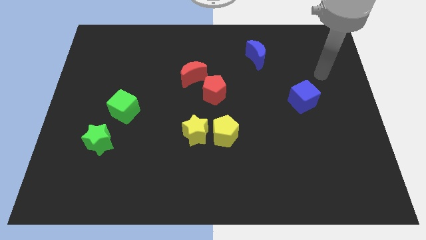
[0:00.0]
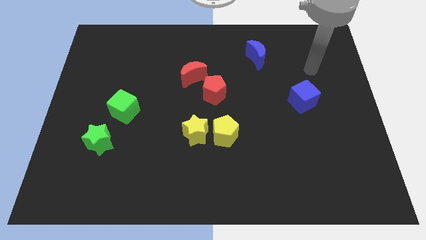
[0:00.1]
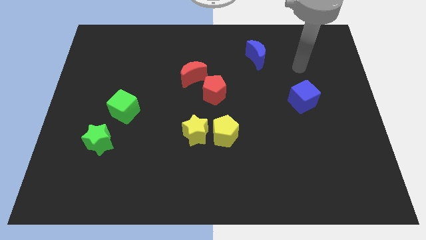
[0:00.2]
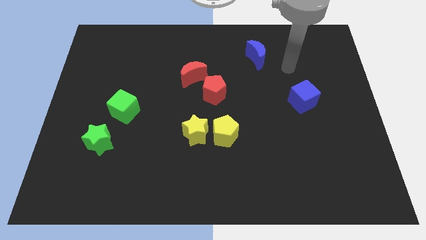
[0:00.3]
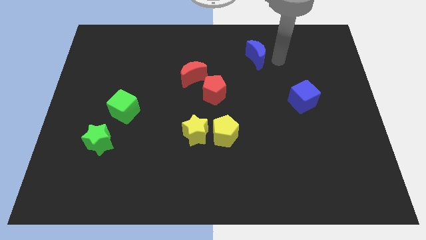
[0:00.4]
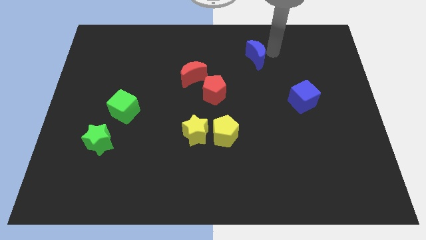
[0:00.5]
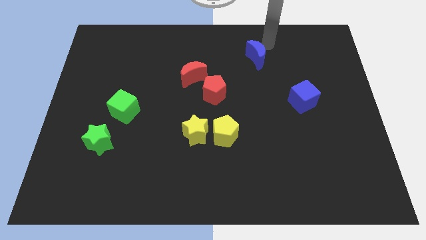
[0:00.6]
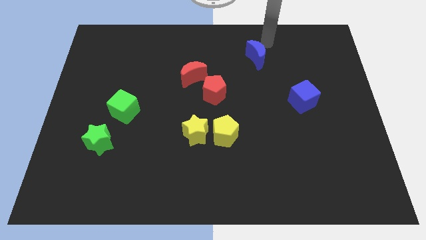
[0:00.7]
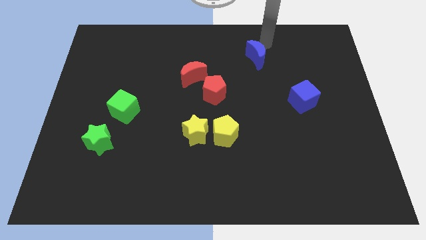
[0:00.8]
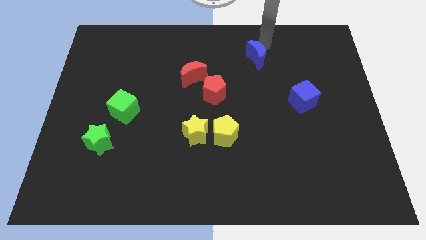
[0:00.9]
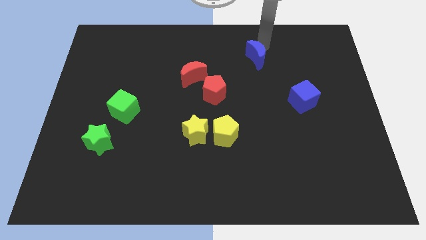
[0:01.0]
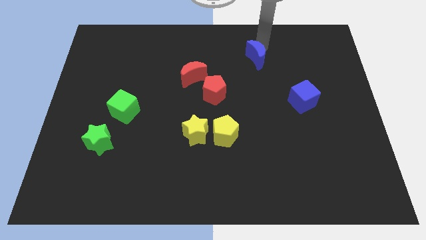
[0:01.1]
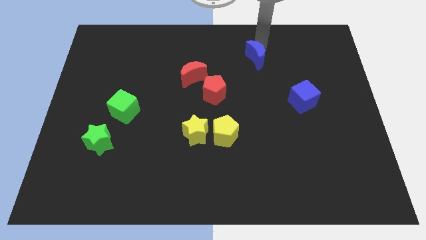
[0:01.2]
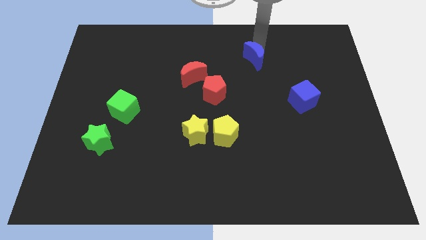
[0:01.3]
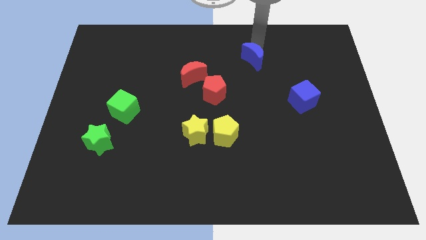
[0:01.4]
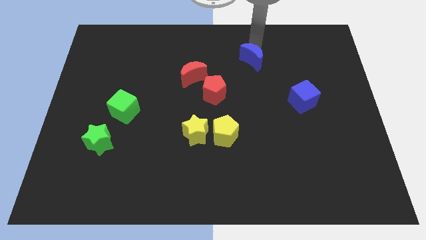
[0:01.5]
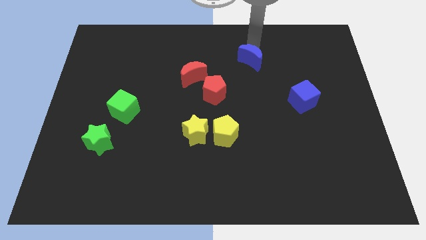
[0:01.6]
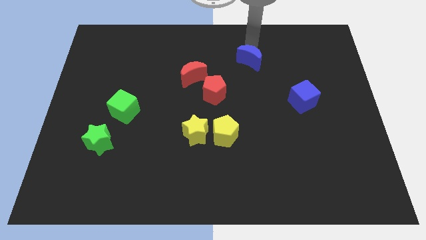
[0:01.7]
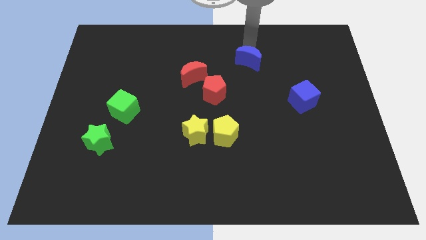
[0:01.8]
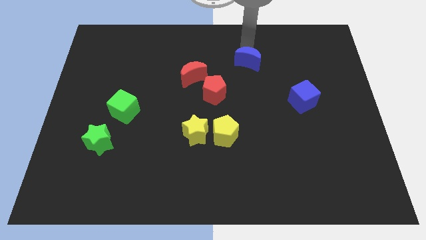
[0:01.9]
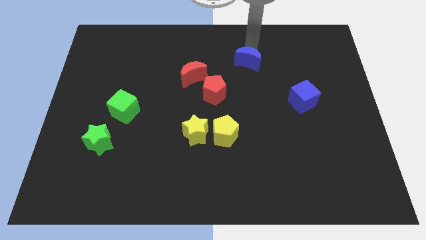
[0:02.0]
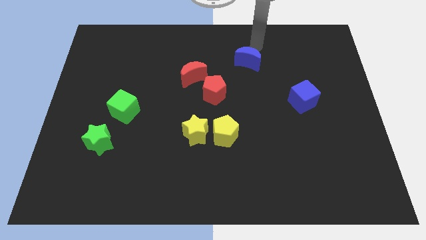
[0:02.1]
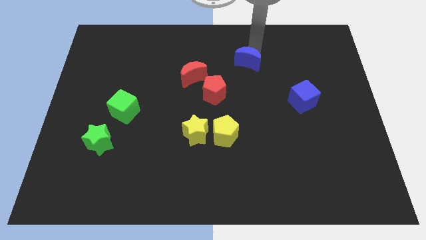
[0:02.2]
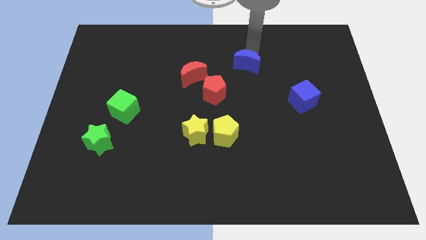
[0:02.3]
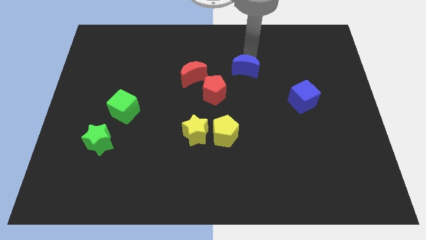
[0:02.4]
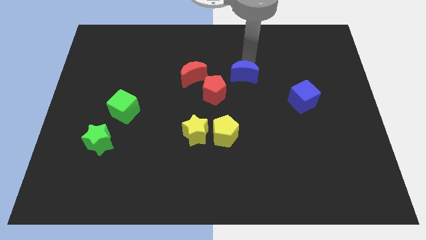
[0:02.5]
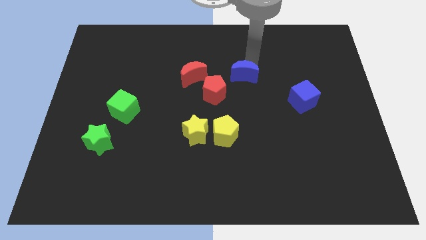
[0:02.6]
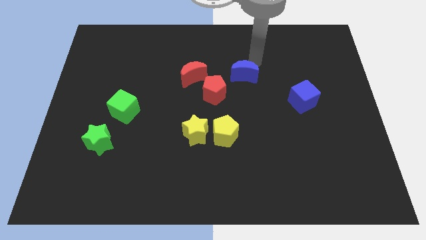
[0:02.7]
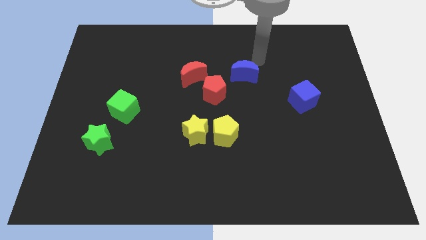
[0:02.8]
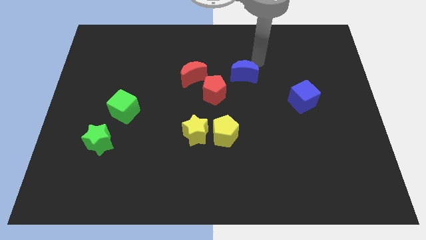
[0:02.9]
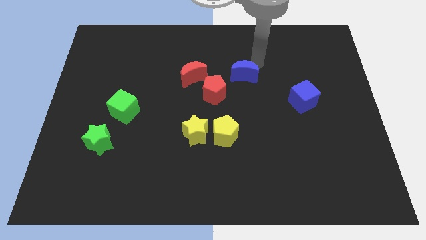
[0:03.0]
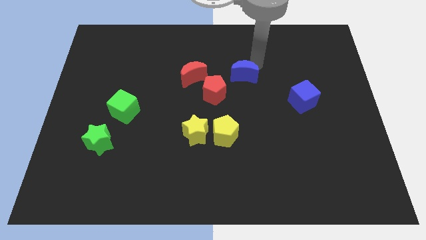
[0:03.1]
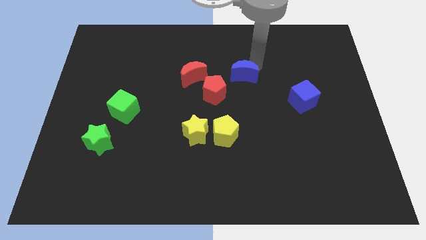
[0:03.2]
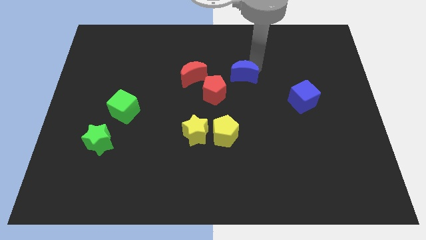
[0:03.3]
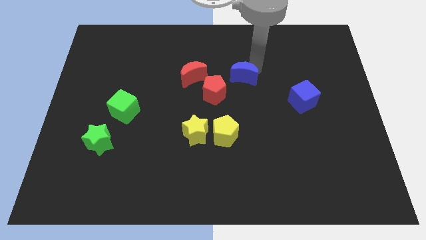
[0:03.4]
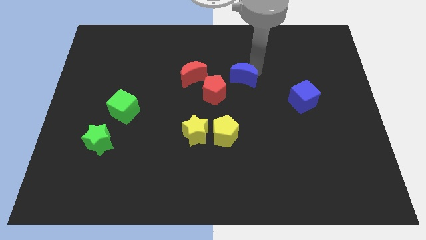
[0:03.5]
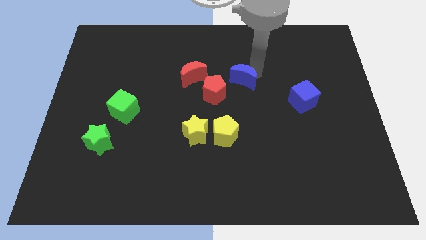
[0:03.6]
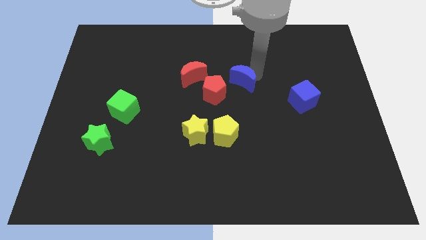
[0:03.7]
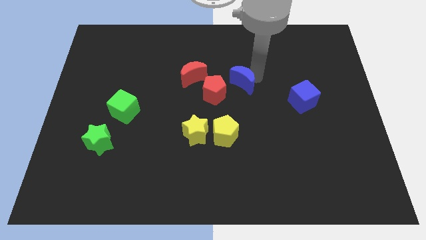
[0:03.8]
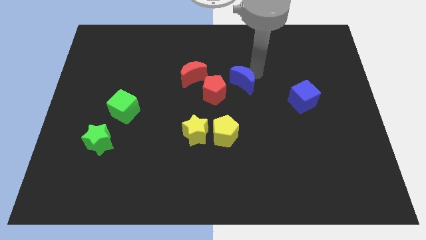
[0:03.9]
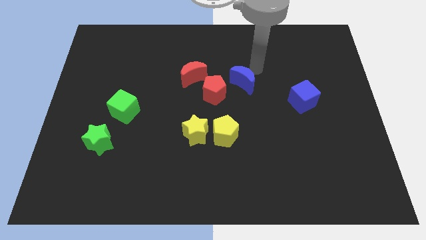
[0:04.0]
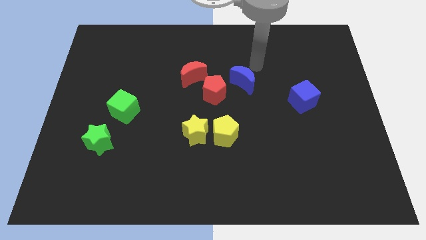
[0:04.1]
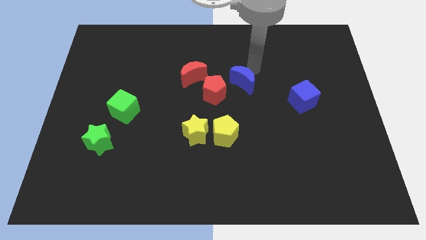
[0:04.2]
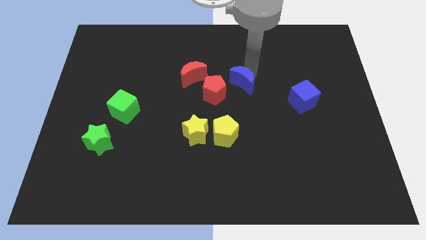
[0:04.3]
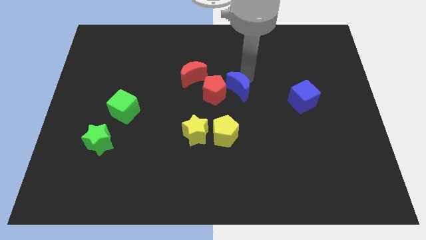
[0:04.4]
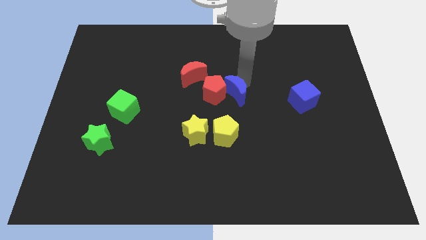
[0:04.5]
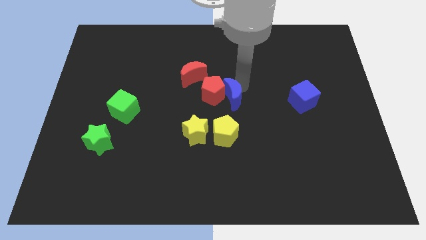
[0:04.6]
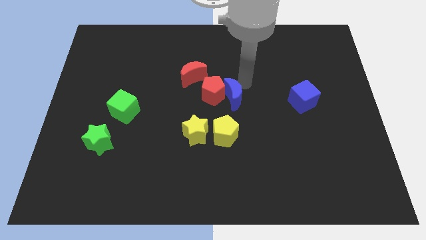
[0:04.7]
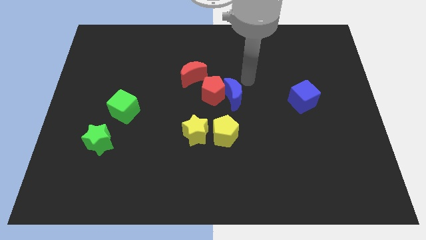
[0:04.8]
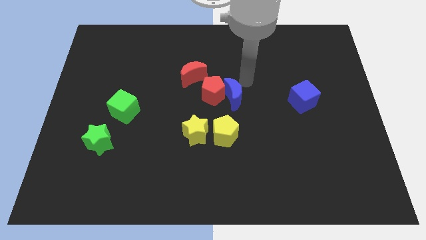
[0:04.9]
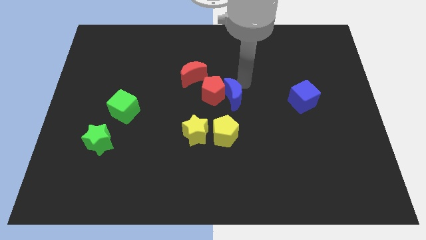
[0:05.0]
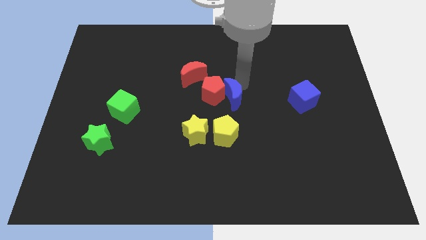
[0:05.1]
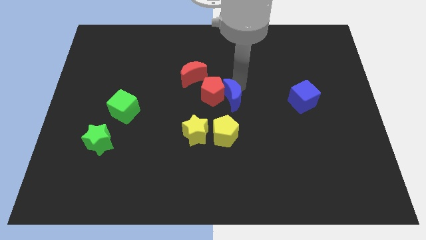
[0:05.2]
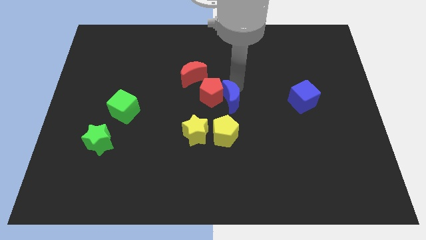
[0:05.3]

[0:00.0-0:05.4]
move the blue moon to the top right side of the yellow star

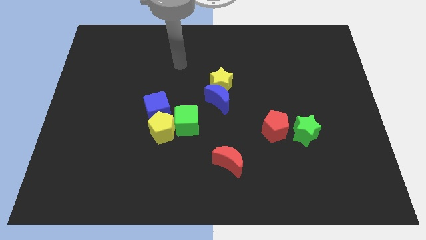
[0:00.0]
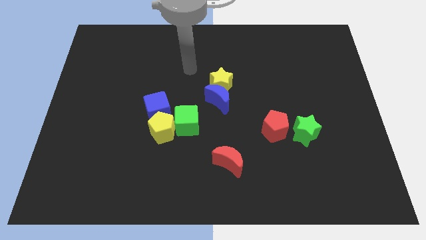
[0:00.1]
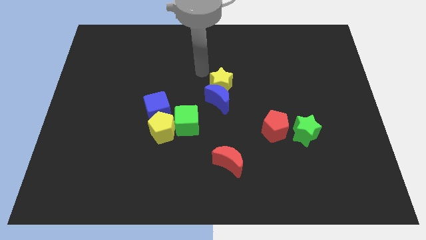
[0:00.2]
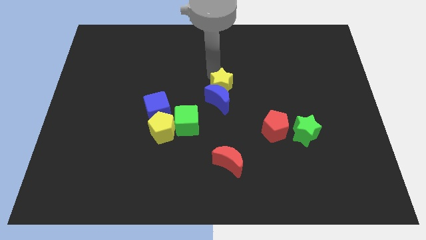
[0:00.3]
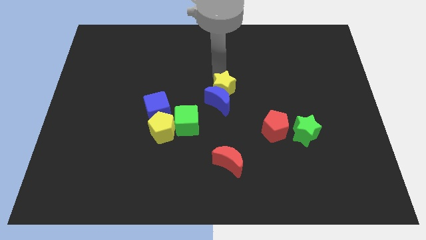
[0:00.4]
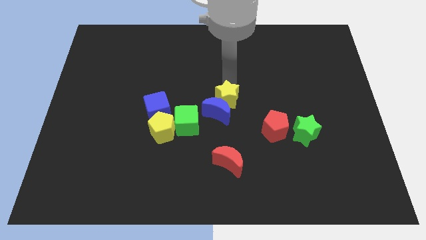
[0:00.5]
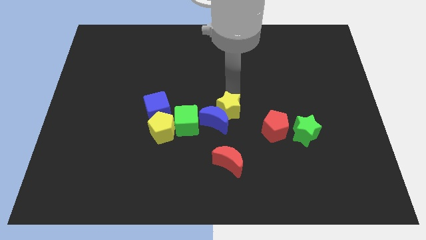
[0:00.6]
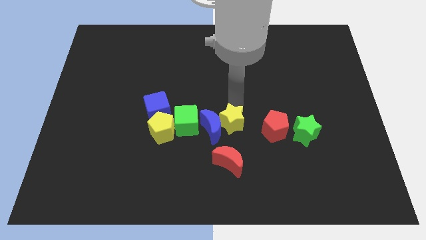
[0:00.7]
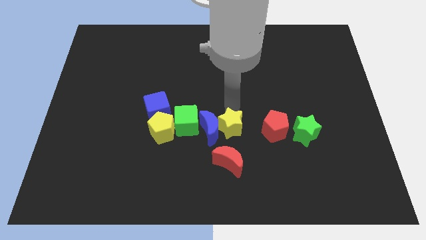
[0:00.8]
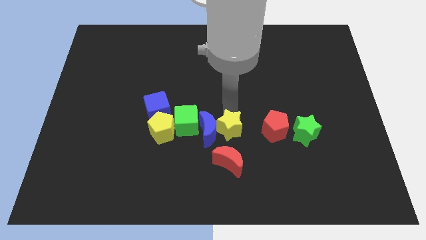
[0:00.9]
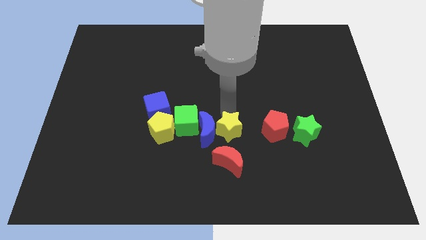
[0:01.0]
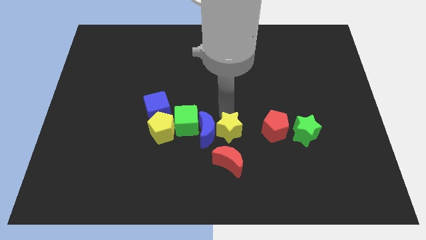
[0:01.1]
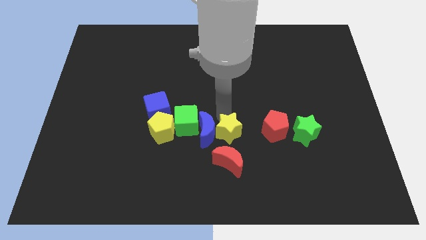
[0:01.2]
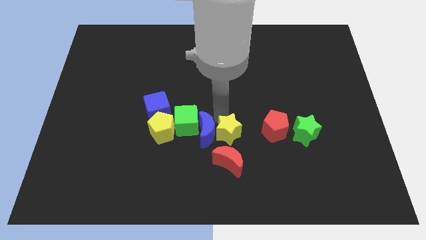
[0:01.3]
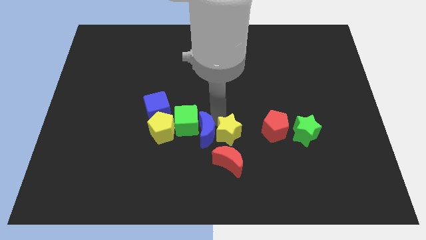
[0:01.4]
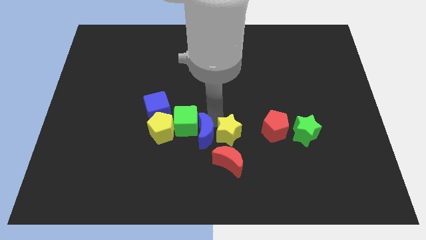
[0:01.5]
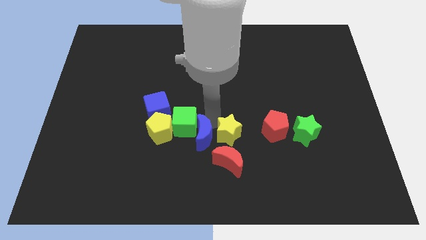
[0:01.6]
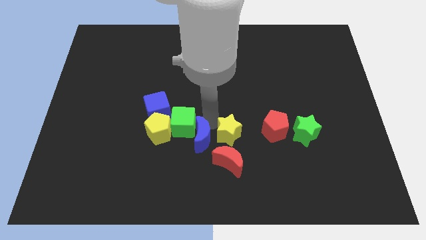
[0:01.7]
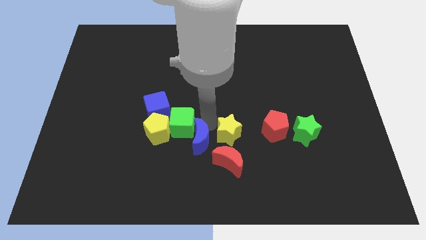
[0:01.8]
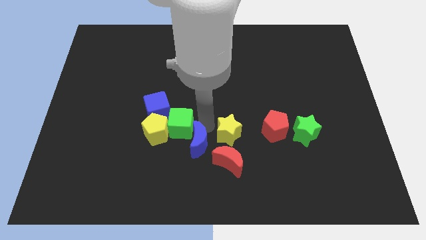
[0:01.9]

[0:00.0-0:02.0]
move the blue moon just left of the red moon

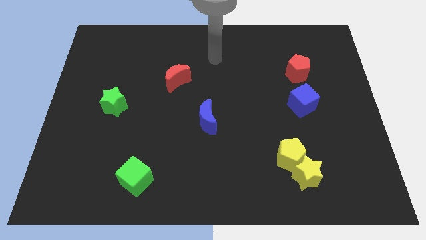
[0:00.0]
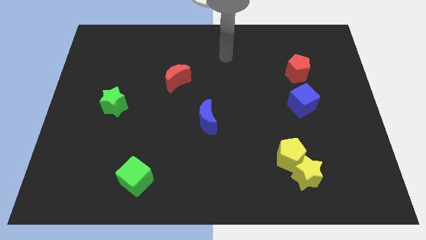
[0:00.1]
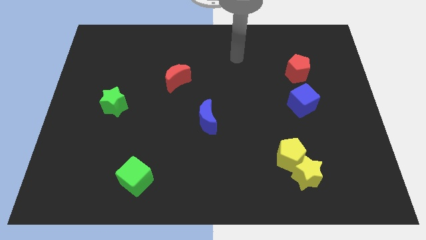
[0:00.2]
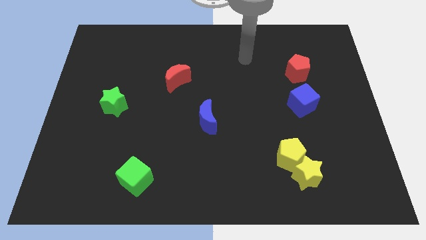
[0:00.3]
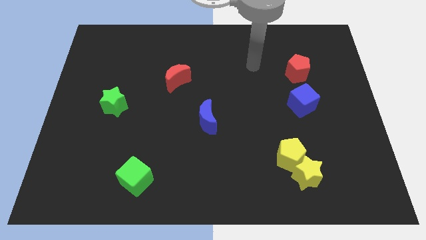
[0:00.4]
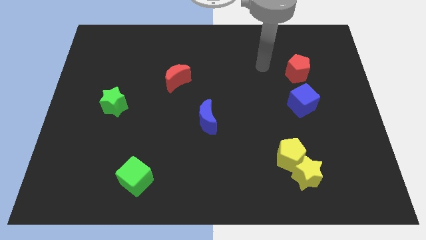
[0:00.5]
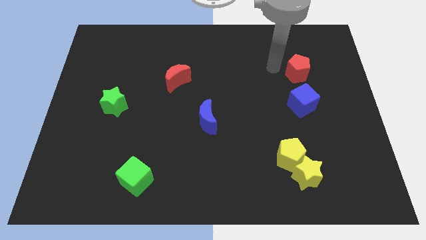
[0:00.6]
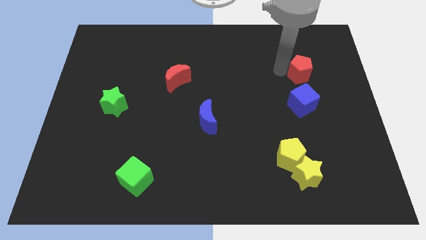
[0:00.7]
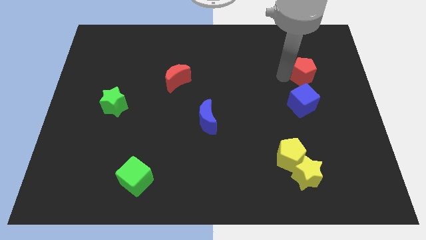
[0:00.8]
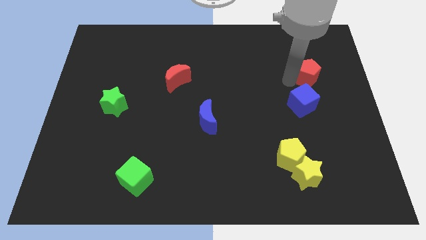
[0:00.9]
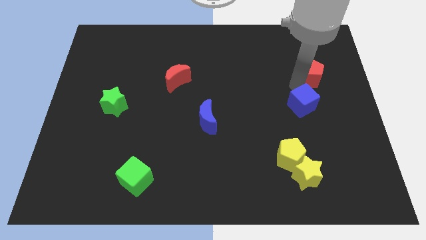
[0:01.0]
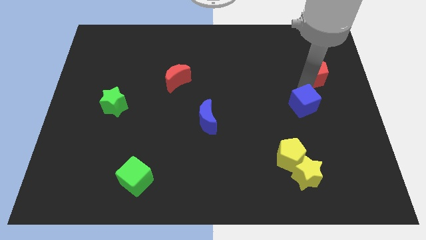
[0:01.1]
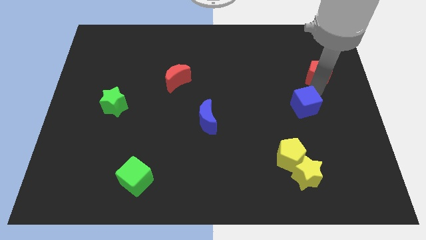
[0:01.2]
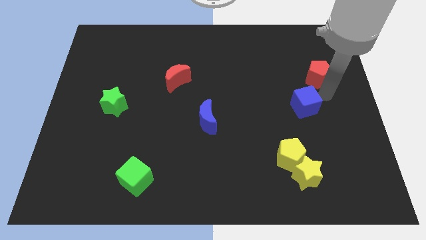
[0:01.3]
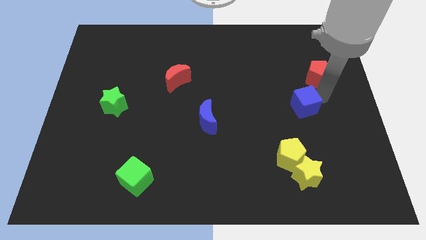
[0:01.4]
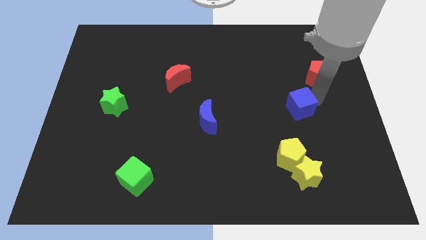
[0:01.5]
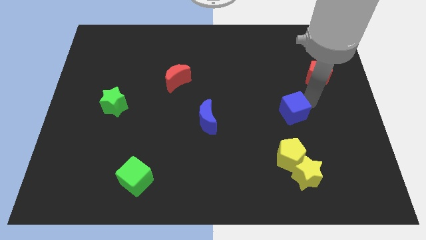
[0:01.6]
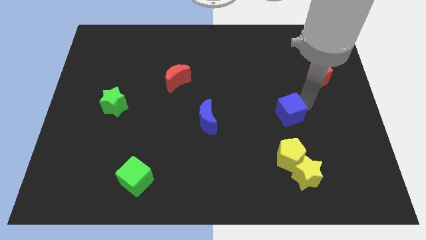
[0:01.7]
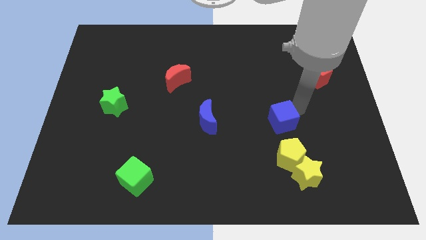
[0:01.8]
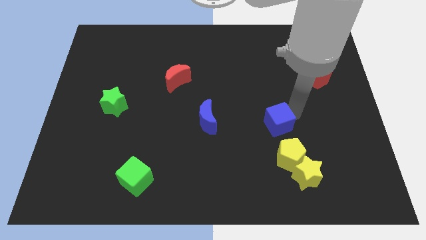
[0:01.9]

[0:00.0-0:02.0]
move the blue cube just right of the blue moon
